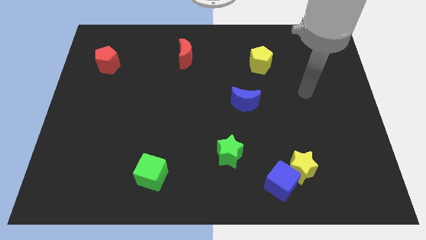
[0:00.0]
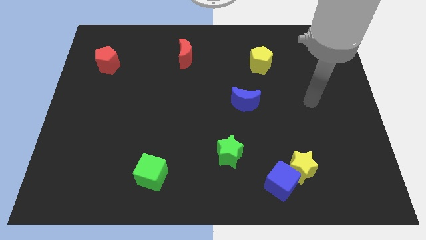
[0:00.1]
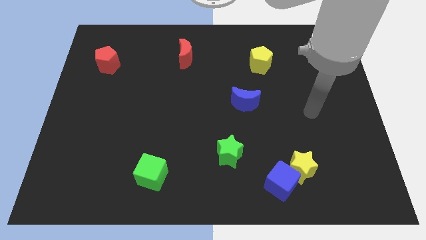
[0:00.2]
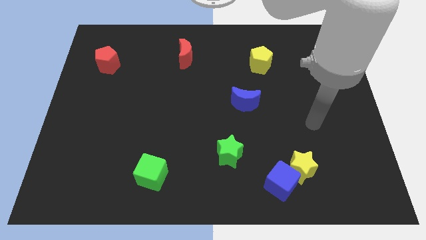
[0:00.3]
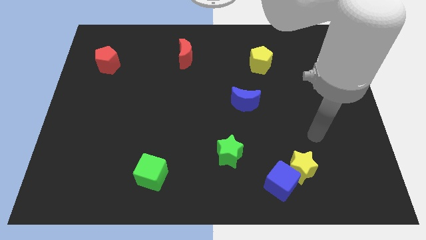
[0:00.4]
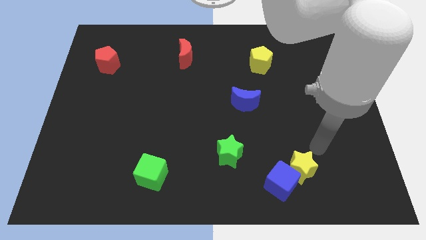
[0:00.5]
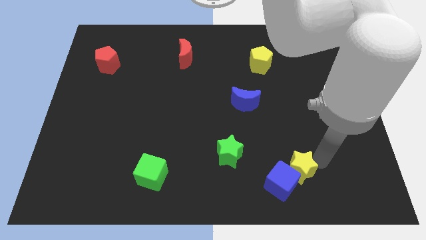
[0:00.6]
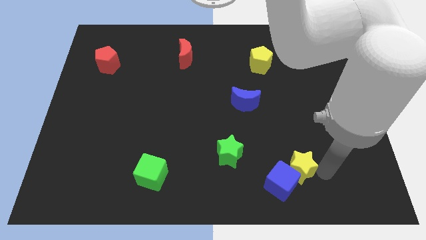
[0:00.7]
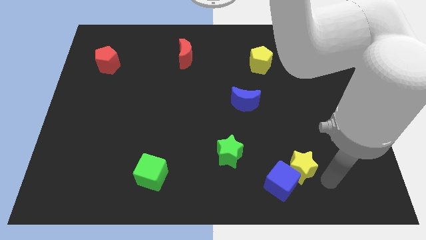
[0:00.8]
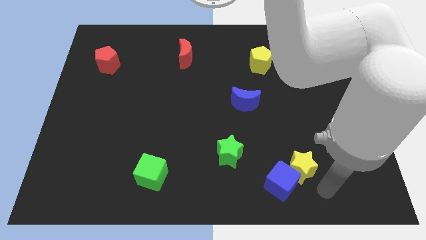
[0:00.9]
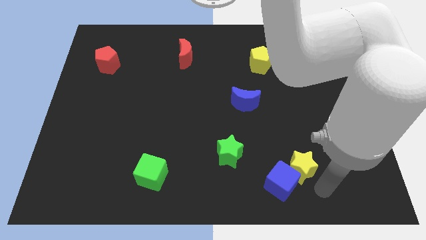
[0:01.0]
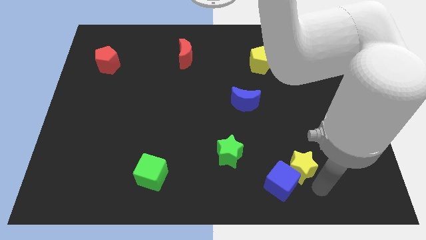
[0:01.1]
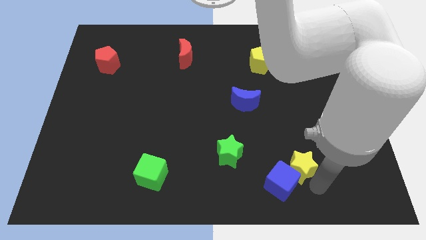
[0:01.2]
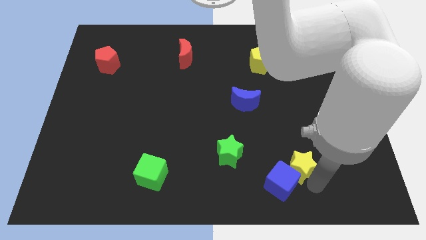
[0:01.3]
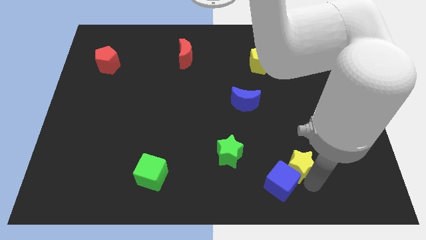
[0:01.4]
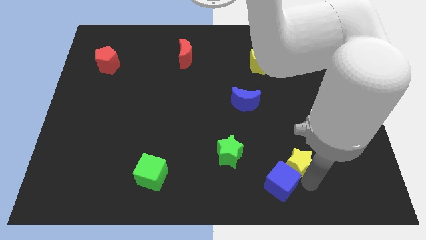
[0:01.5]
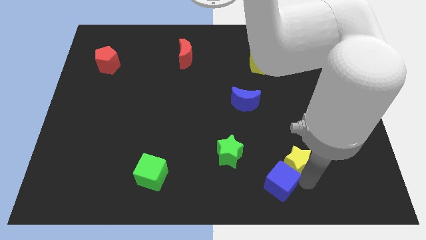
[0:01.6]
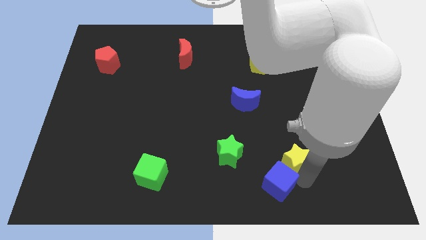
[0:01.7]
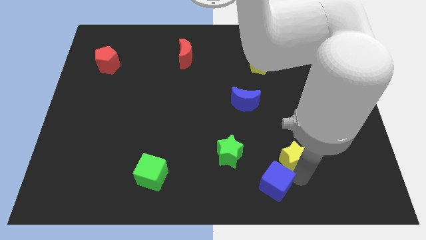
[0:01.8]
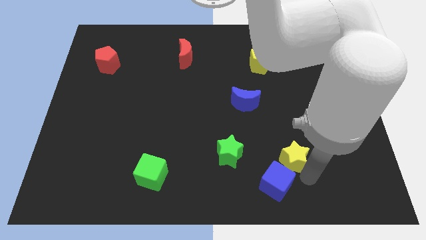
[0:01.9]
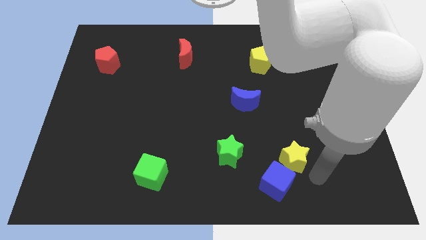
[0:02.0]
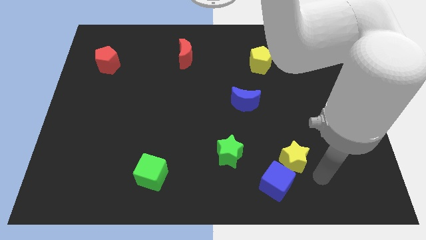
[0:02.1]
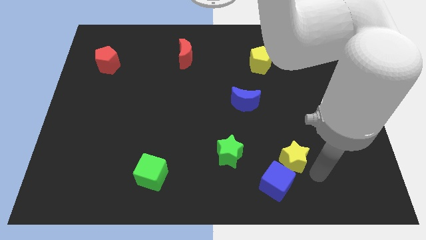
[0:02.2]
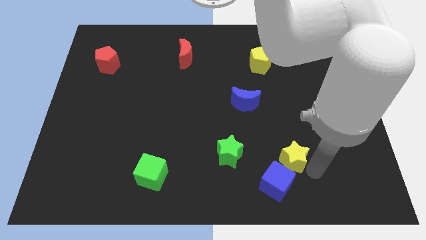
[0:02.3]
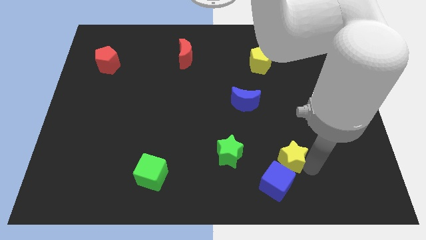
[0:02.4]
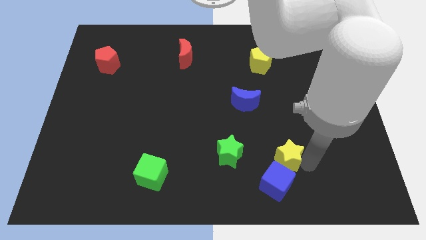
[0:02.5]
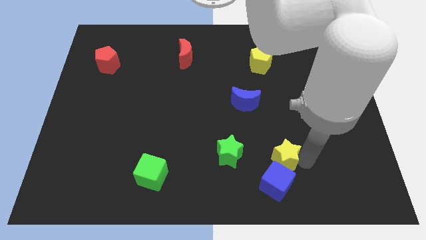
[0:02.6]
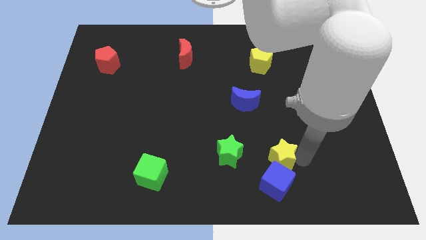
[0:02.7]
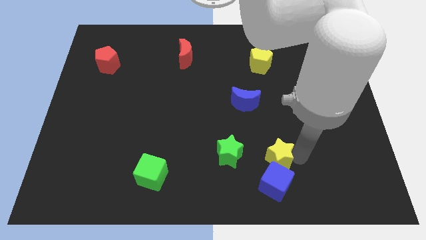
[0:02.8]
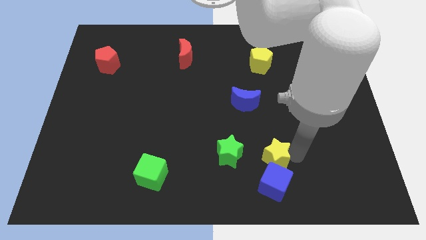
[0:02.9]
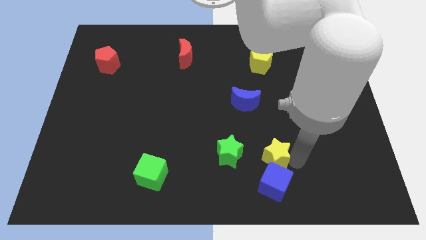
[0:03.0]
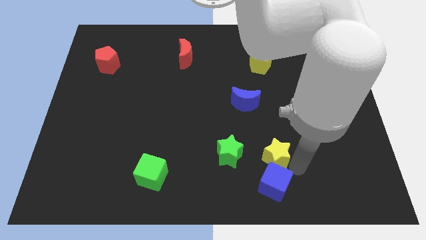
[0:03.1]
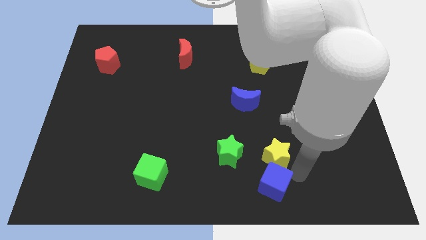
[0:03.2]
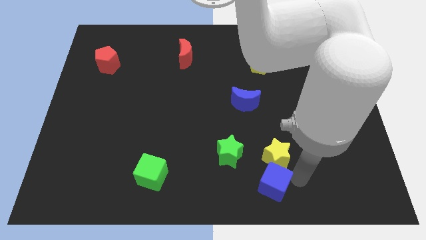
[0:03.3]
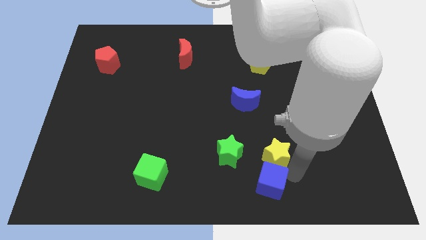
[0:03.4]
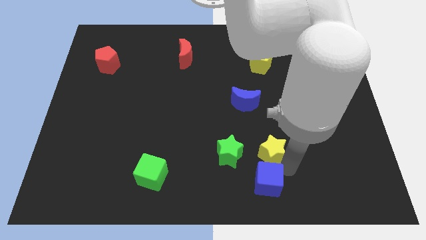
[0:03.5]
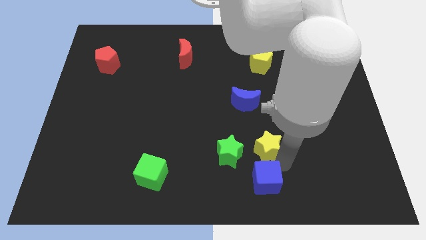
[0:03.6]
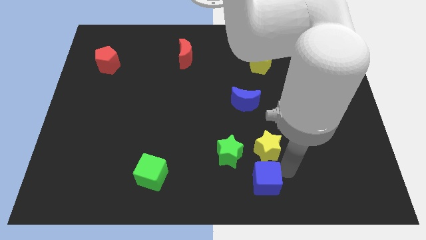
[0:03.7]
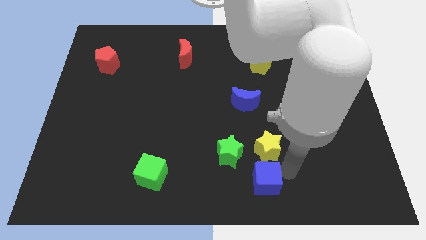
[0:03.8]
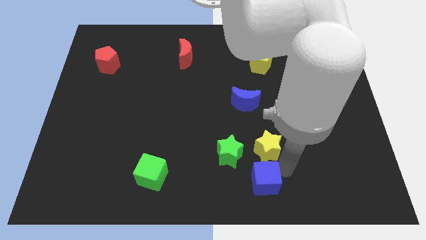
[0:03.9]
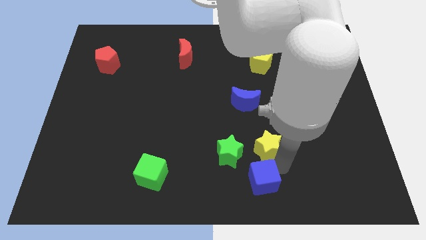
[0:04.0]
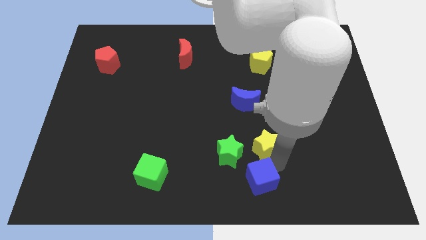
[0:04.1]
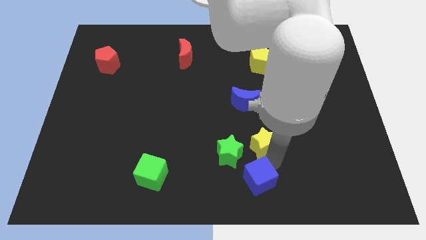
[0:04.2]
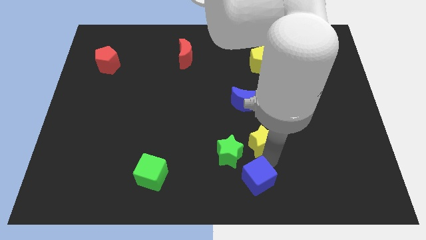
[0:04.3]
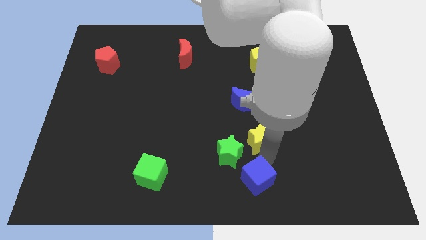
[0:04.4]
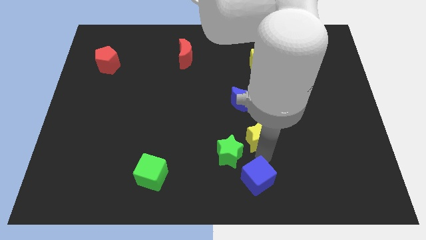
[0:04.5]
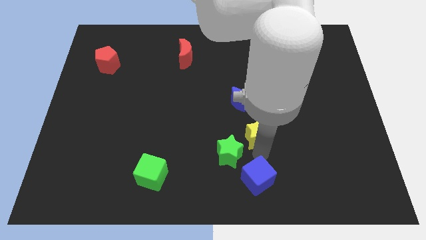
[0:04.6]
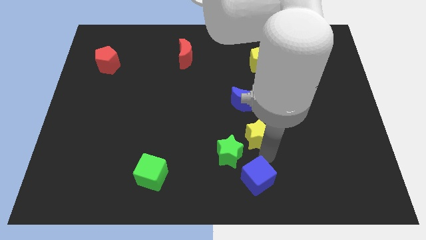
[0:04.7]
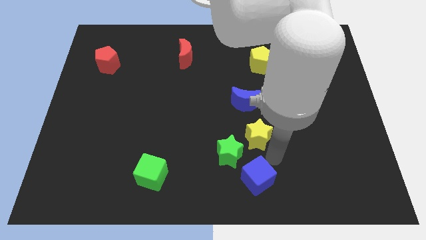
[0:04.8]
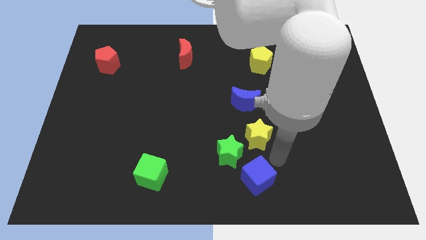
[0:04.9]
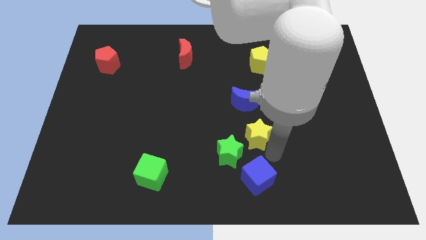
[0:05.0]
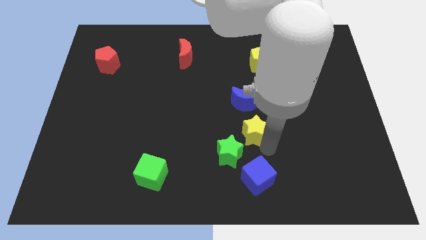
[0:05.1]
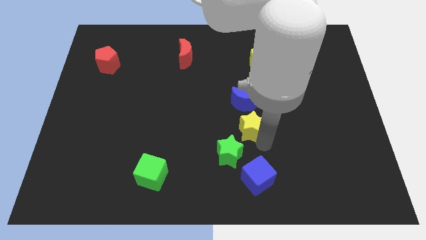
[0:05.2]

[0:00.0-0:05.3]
move the yellow star to the middle

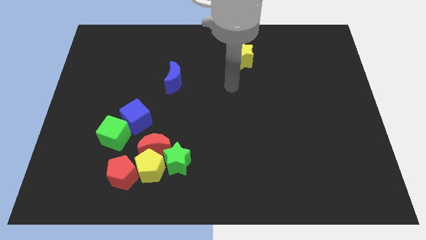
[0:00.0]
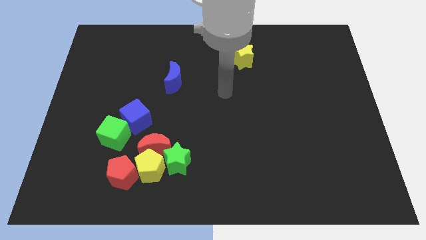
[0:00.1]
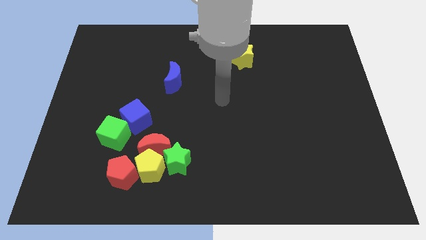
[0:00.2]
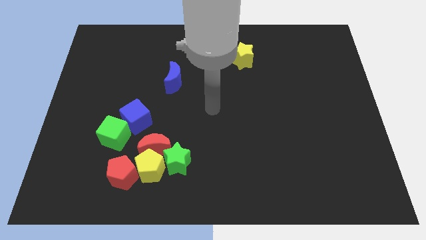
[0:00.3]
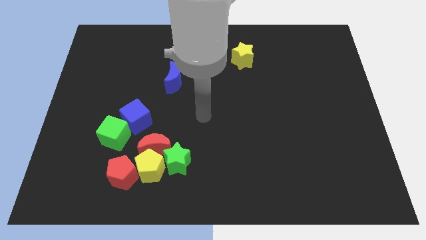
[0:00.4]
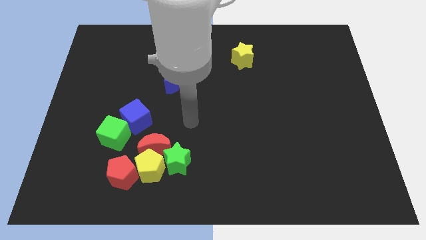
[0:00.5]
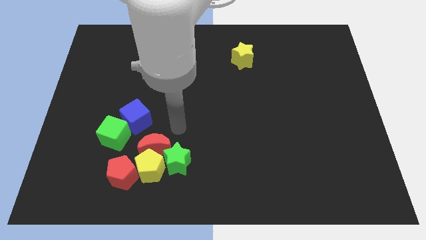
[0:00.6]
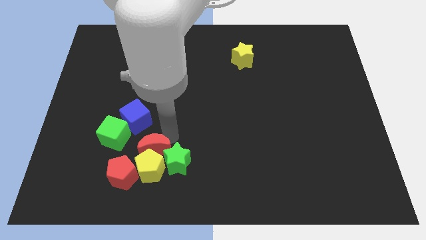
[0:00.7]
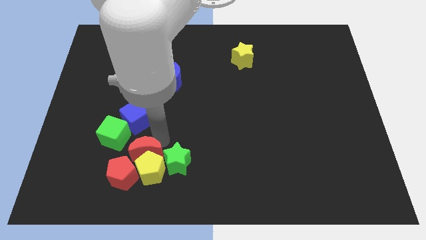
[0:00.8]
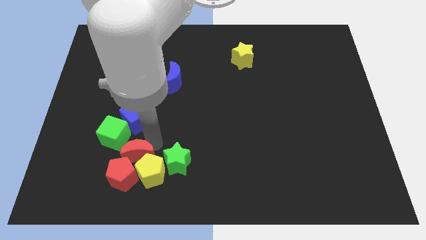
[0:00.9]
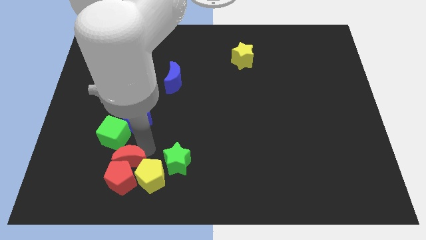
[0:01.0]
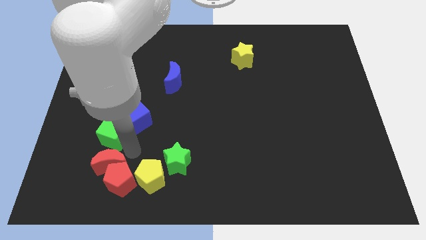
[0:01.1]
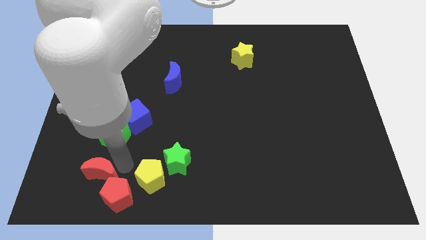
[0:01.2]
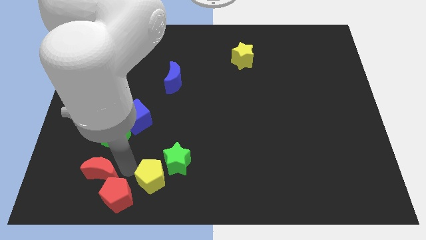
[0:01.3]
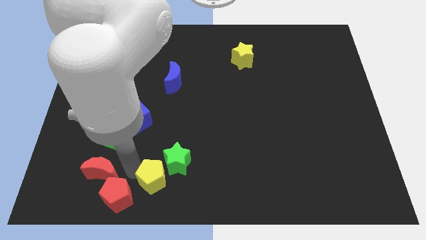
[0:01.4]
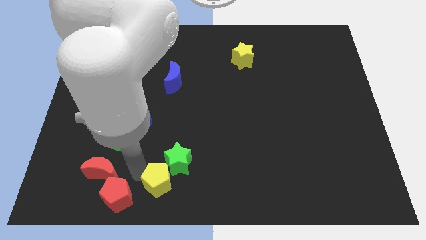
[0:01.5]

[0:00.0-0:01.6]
move the yellow pentagon to the bottom
